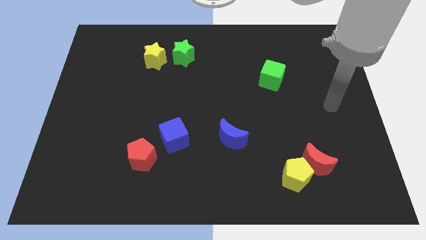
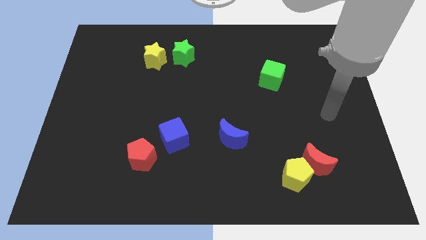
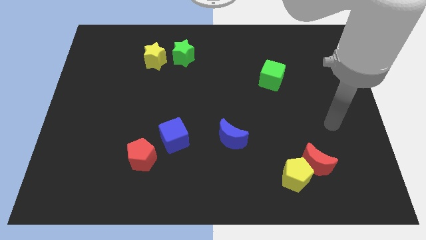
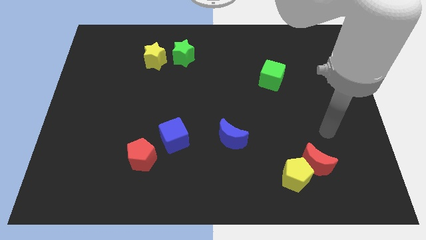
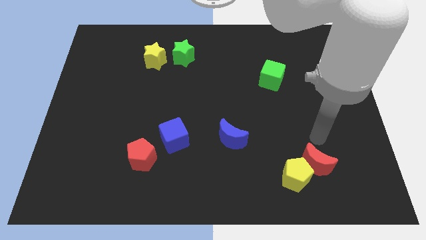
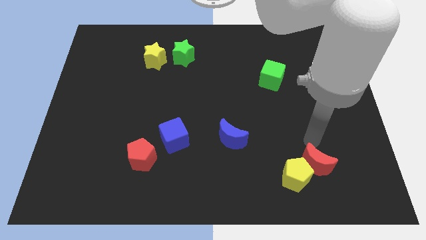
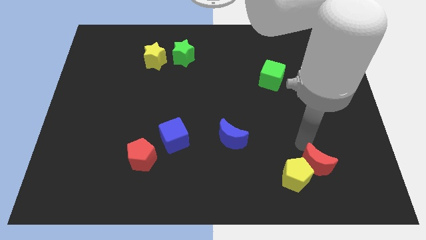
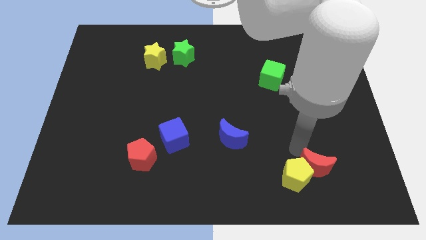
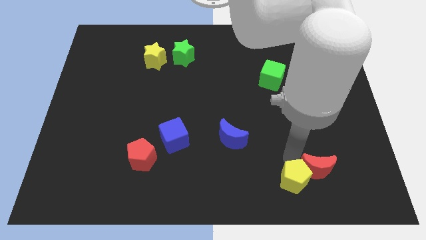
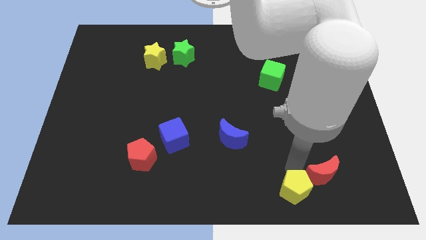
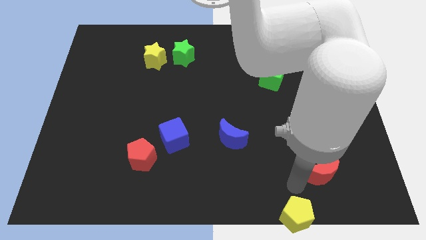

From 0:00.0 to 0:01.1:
pull the red moon apart from the yellow pentagon

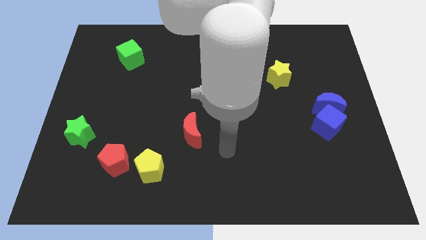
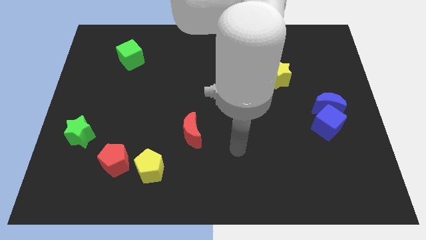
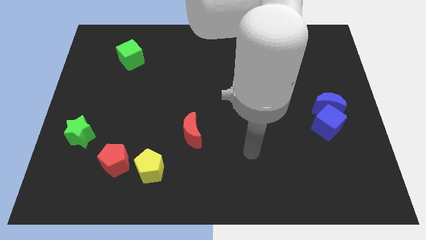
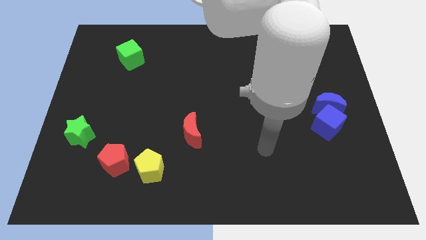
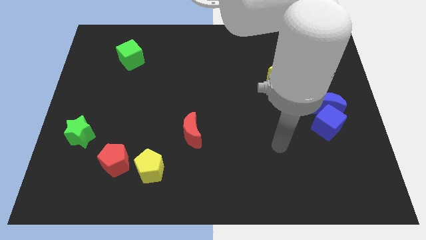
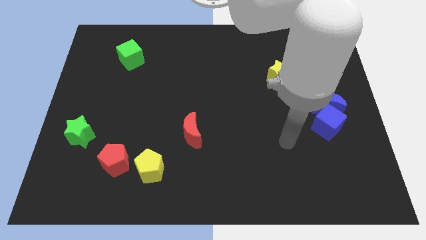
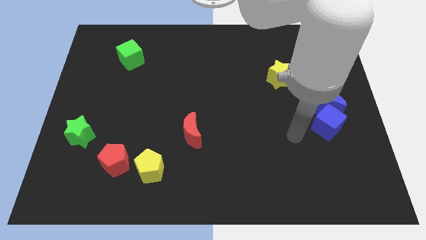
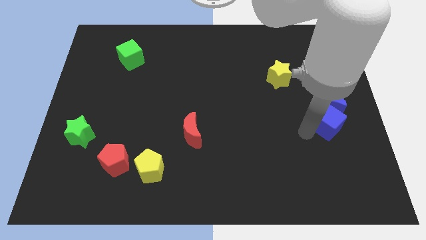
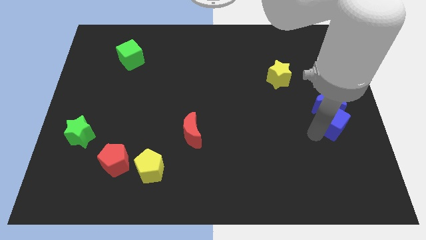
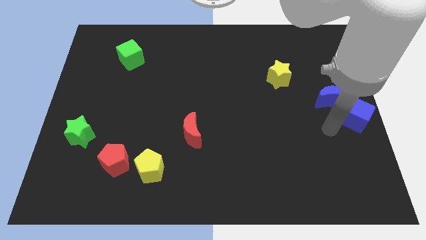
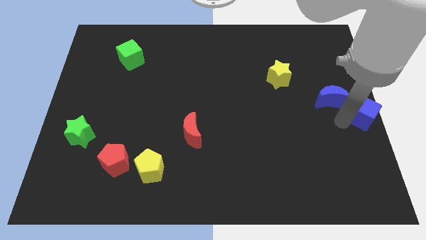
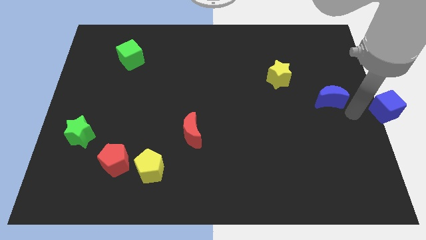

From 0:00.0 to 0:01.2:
move the blue moon away from the blue cube

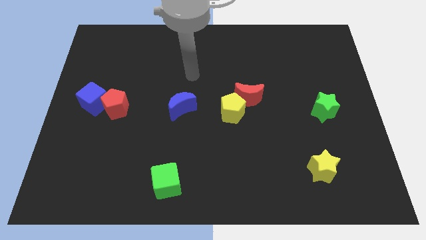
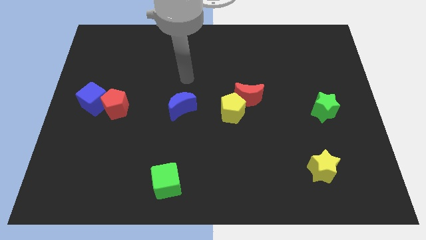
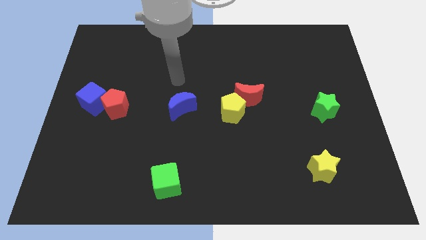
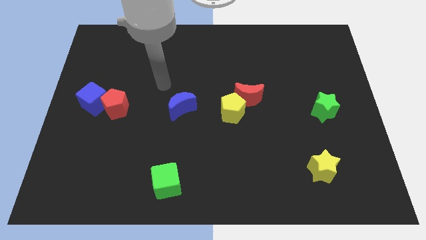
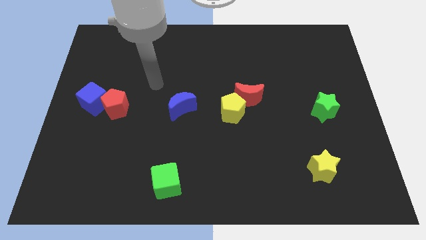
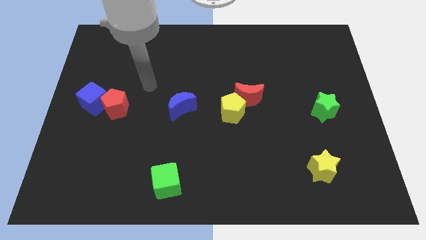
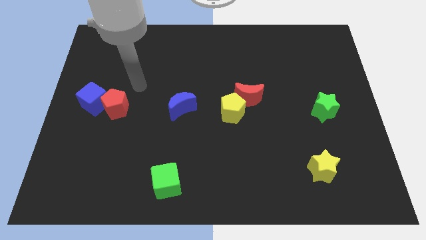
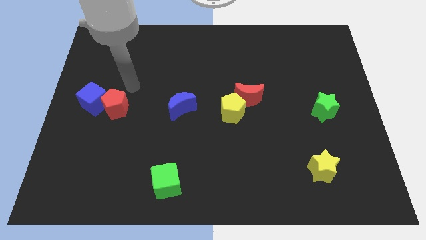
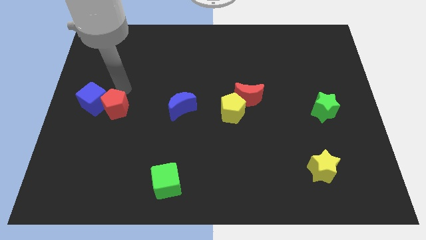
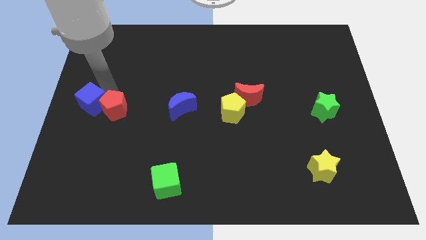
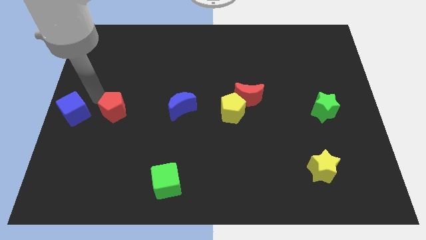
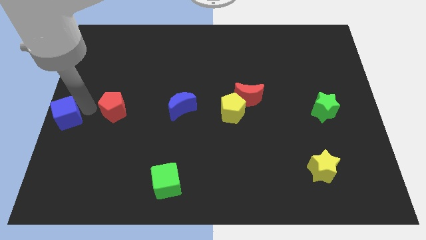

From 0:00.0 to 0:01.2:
move the red pentagon away from the blue cube

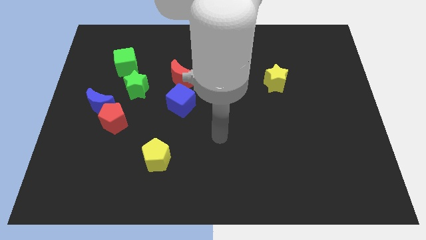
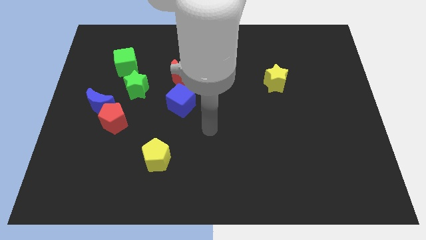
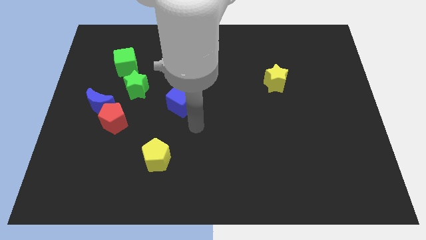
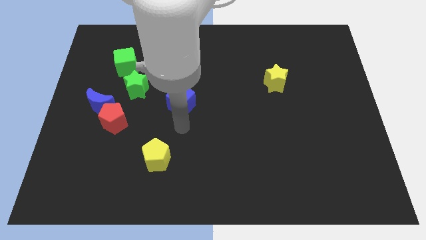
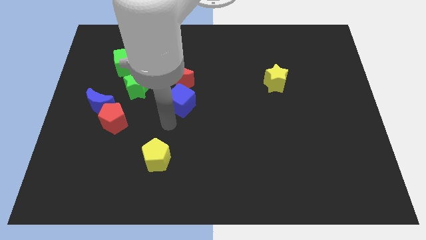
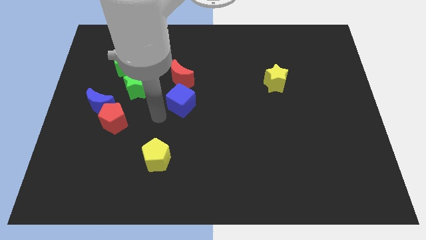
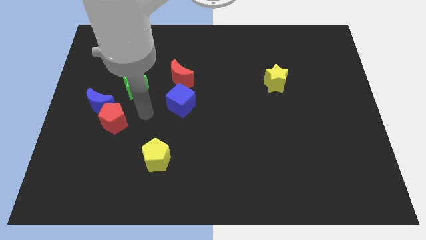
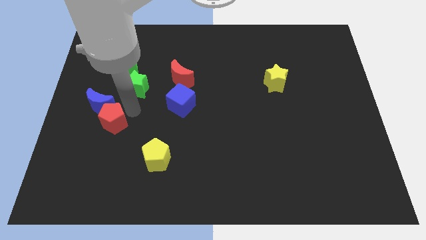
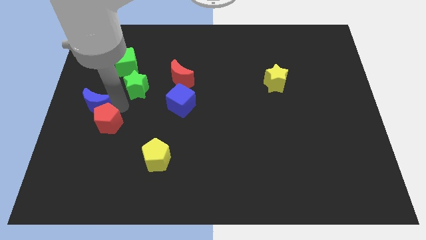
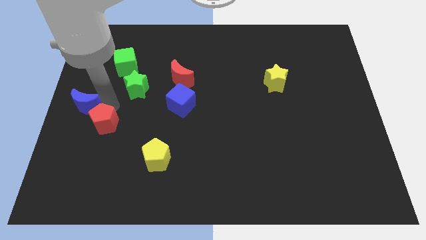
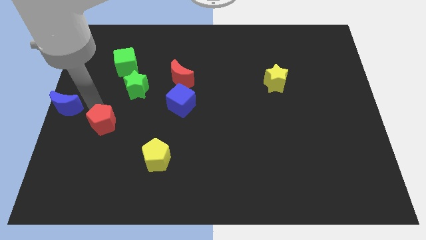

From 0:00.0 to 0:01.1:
separate the red pentagon from the blue moon

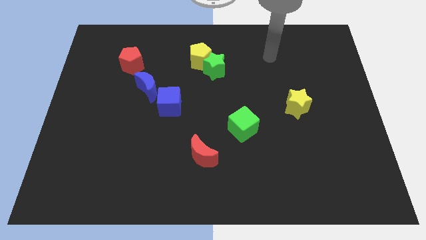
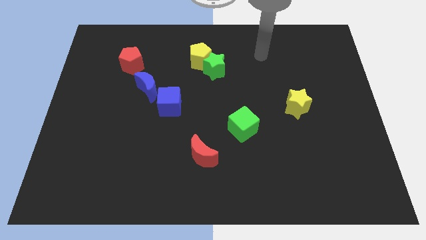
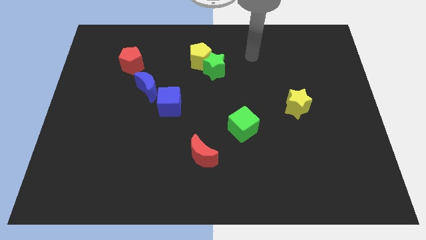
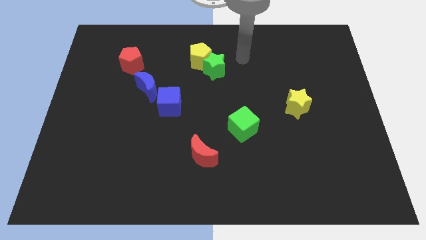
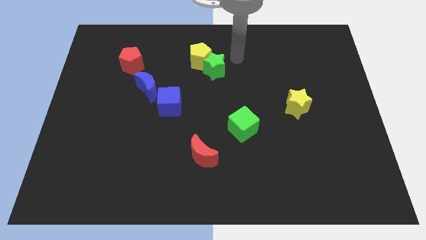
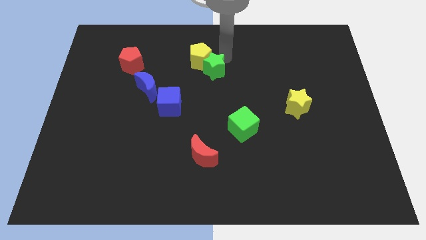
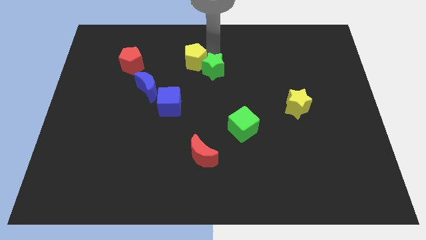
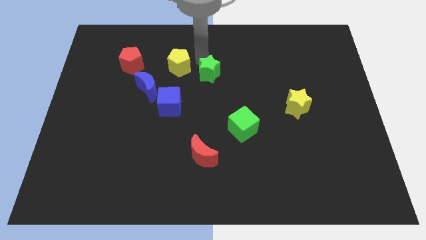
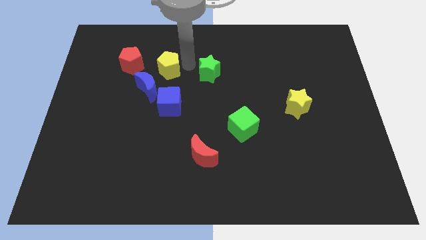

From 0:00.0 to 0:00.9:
pull the green star apart from the yellow pentagon

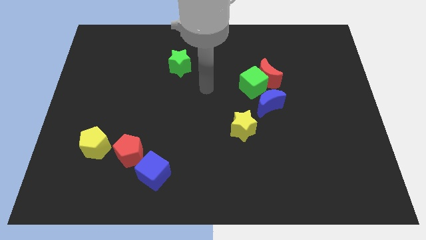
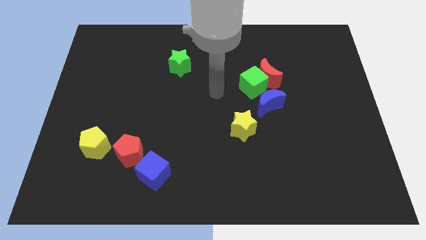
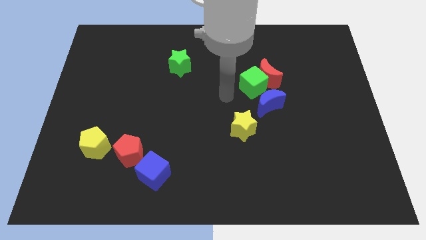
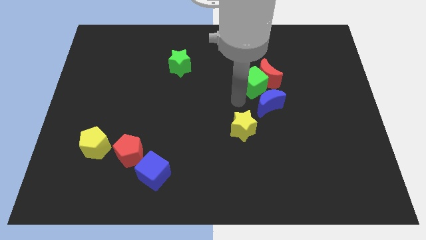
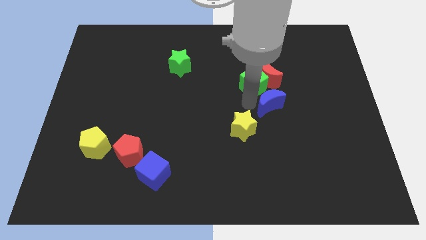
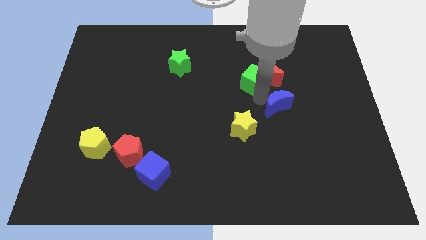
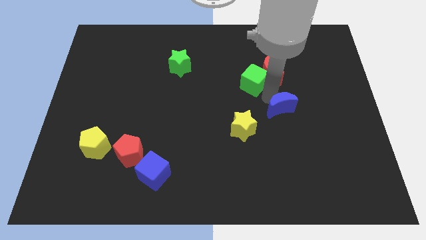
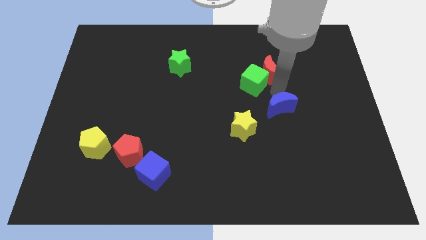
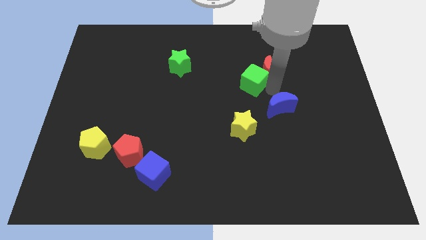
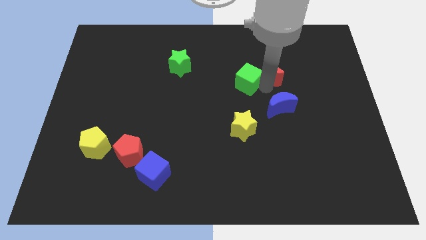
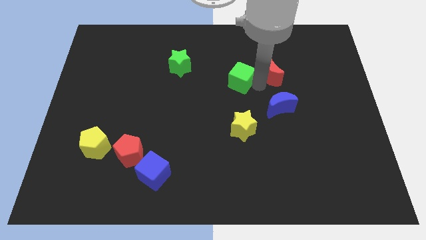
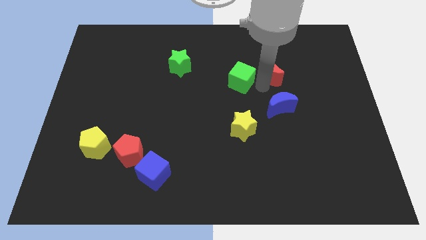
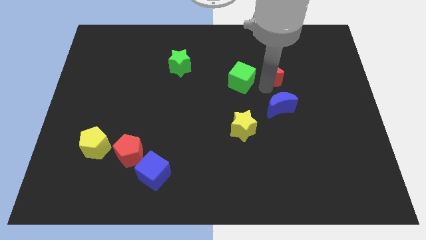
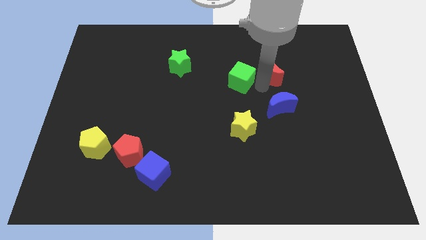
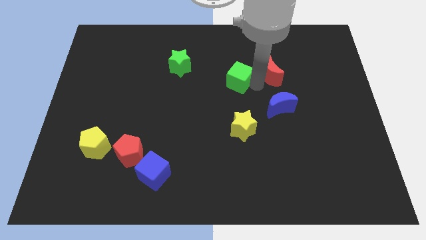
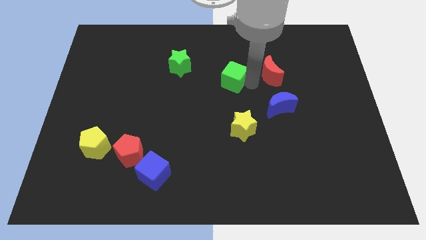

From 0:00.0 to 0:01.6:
separate the green cube from the red moon and blue moon

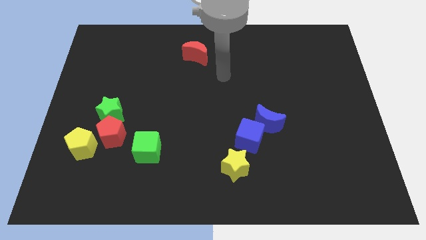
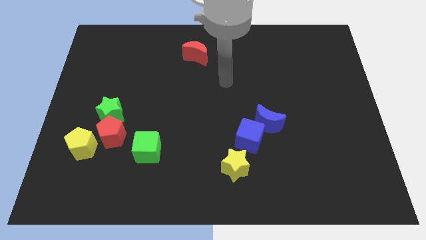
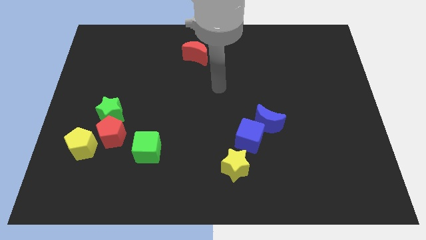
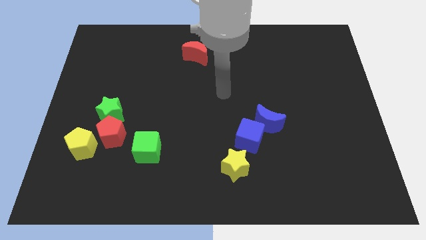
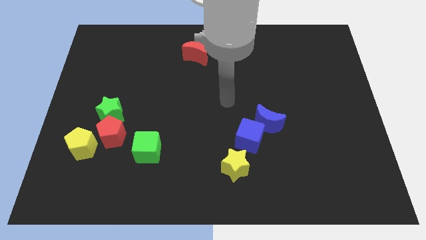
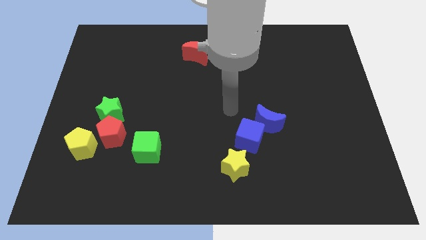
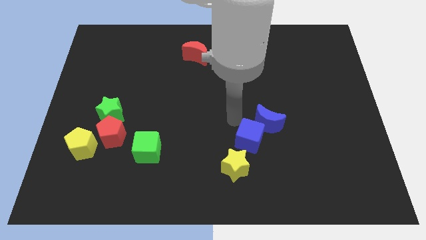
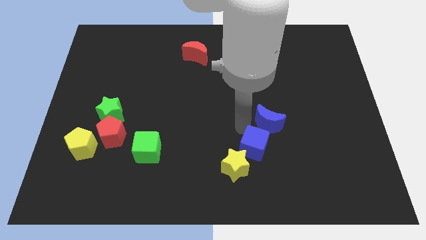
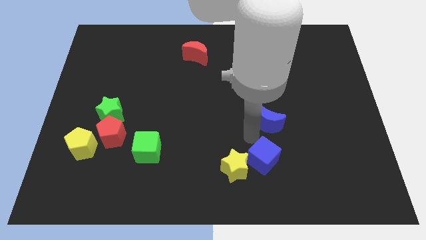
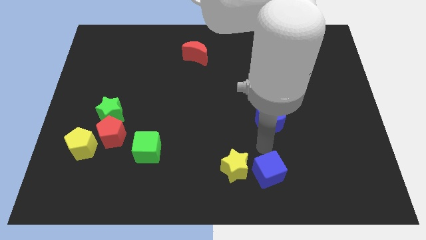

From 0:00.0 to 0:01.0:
separate the blue moon from the blue cube

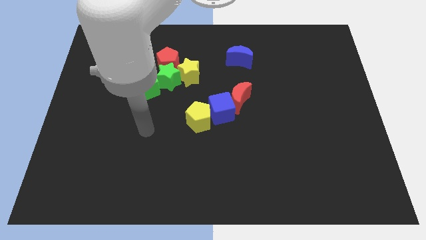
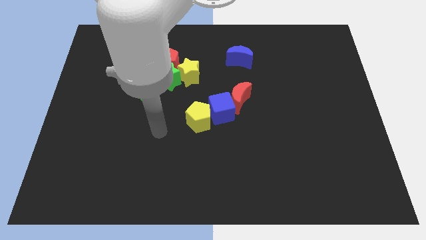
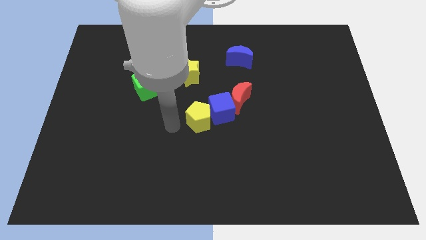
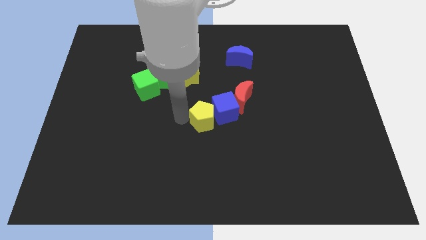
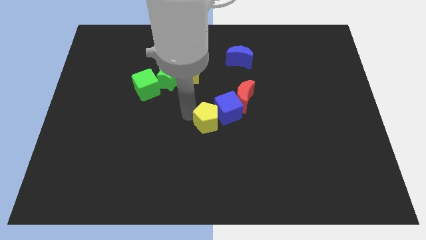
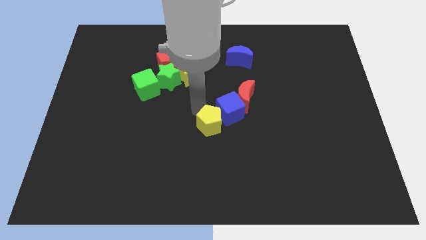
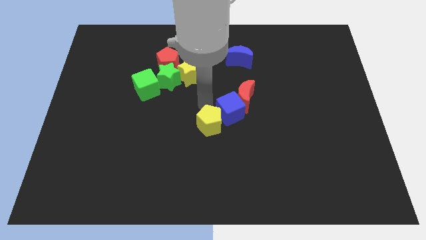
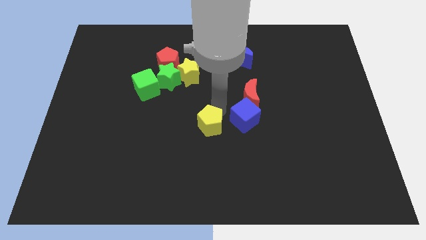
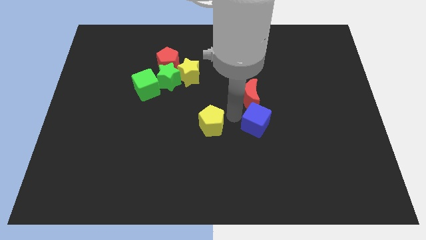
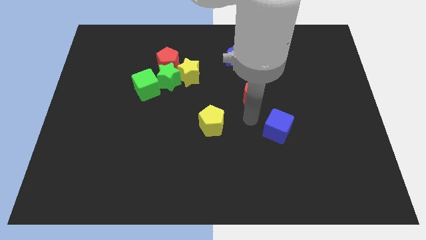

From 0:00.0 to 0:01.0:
separate the red moon from the blue cube

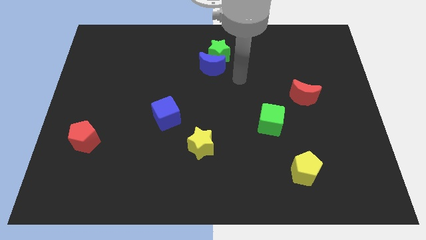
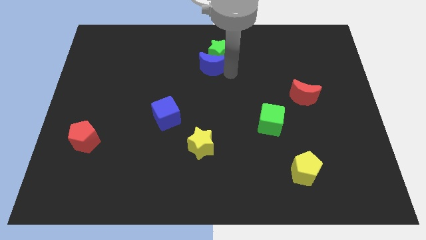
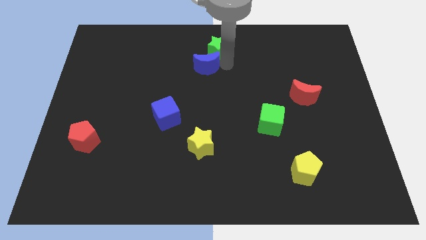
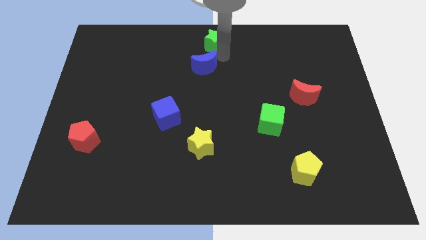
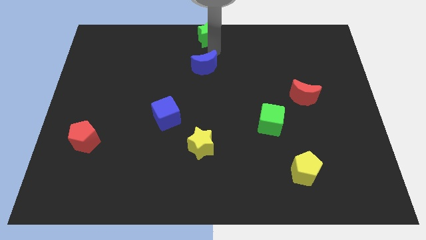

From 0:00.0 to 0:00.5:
pull the blue moon apart from the green star
